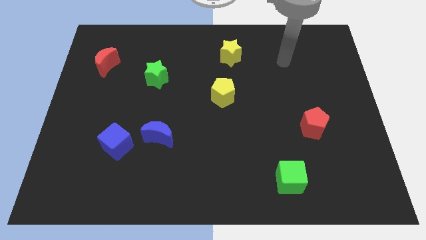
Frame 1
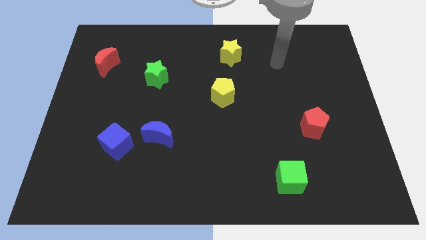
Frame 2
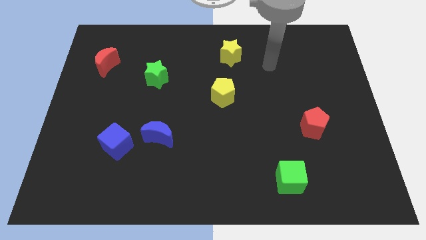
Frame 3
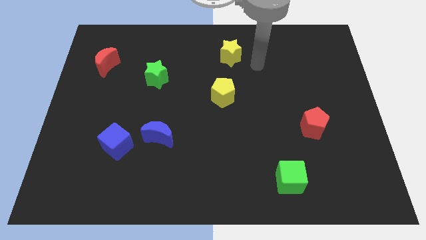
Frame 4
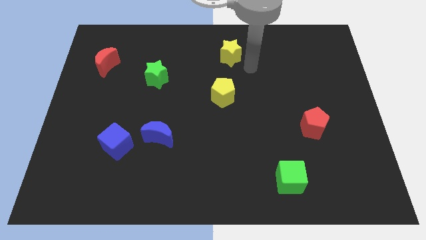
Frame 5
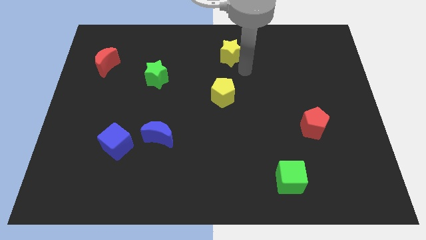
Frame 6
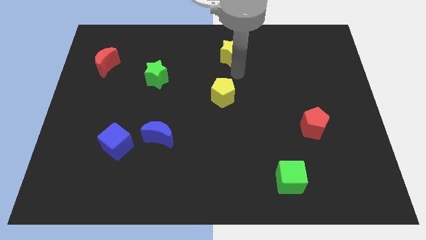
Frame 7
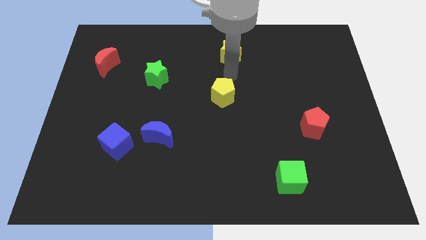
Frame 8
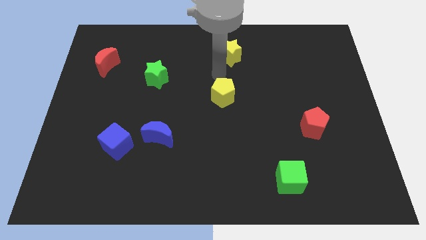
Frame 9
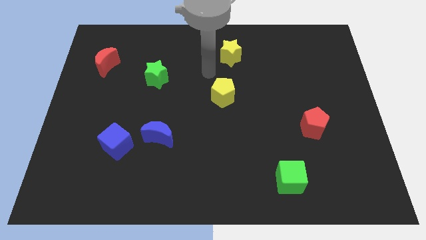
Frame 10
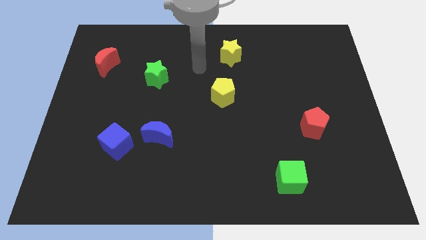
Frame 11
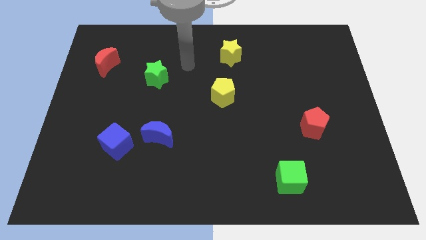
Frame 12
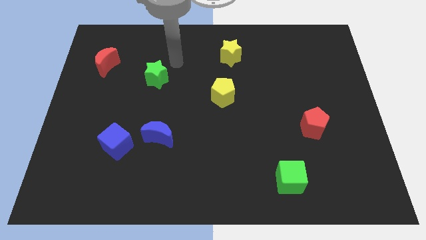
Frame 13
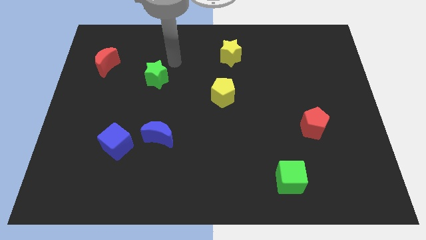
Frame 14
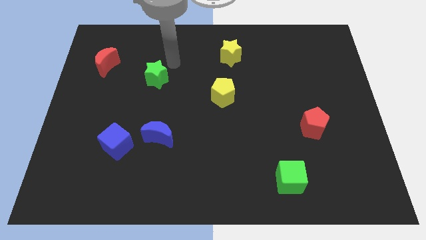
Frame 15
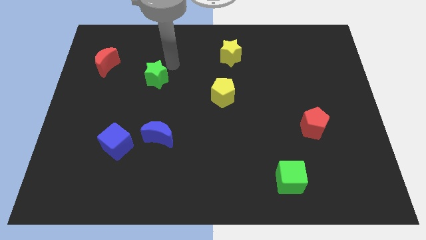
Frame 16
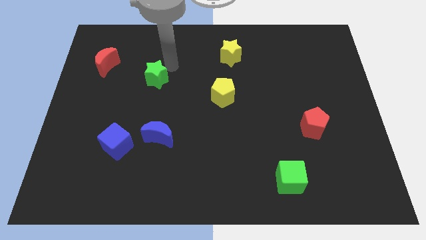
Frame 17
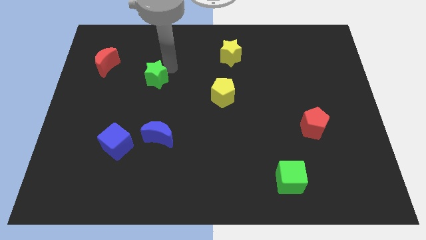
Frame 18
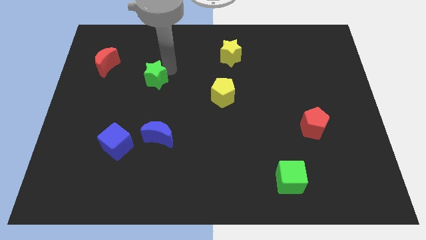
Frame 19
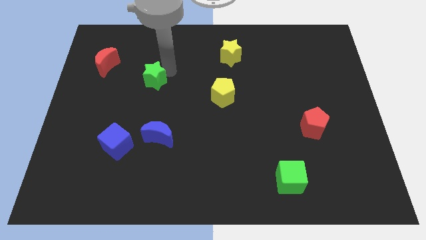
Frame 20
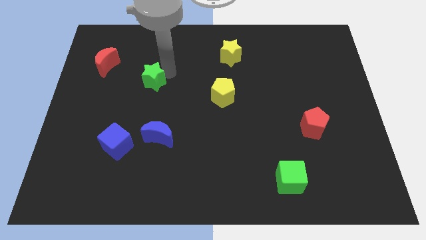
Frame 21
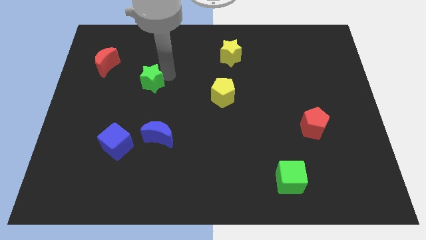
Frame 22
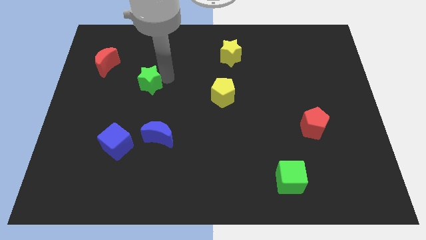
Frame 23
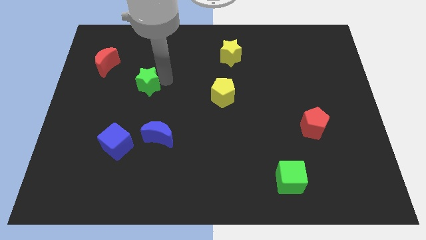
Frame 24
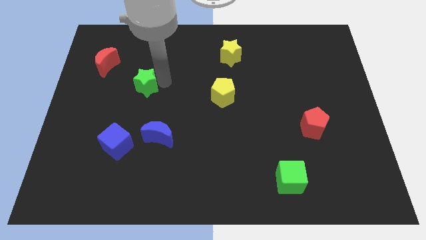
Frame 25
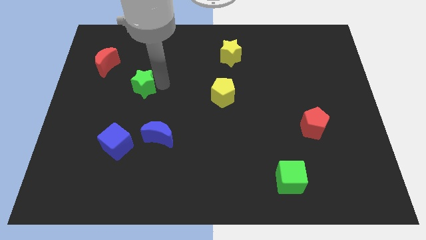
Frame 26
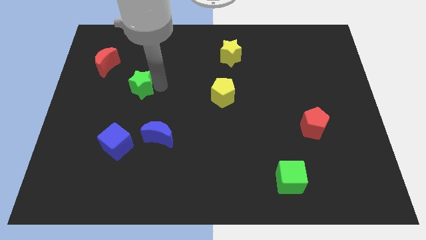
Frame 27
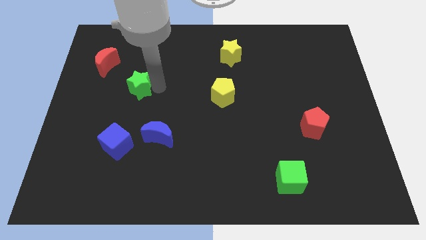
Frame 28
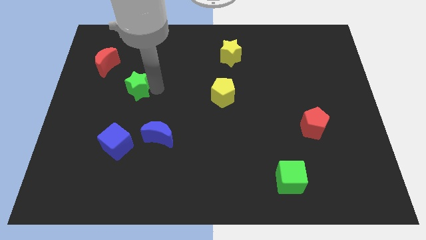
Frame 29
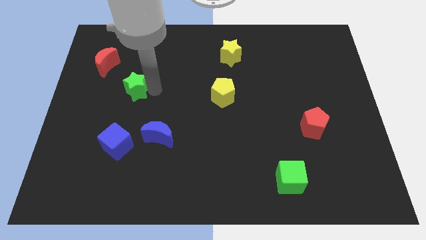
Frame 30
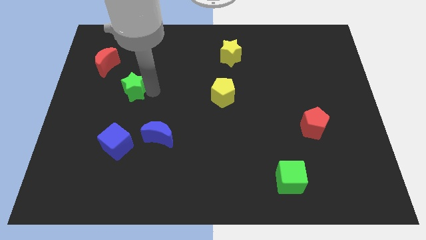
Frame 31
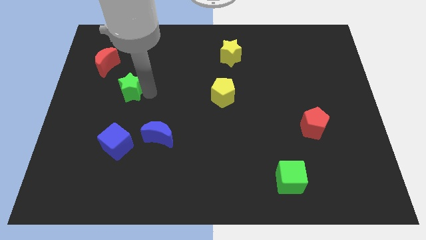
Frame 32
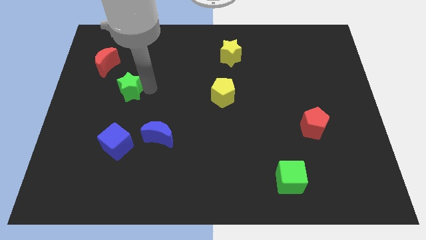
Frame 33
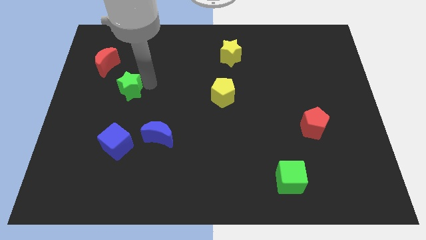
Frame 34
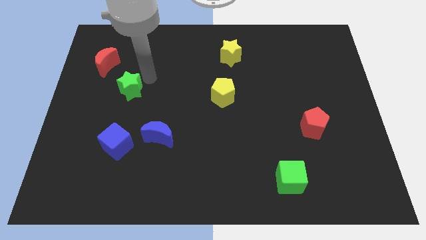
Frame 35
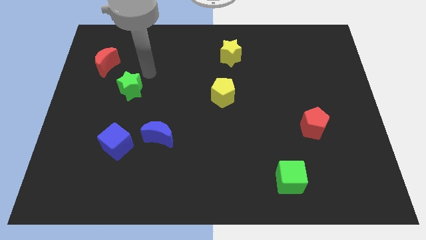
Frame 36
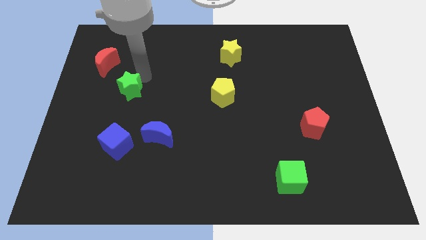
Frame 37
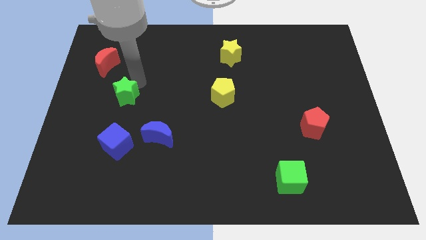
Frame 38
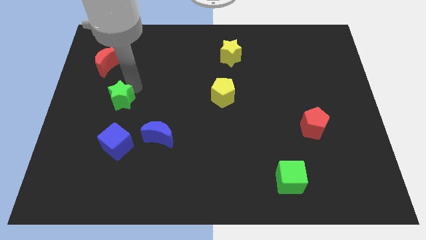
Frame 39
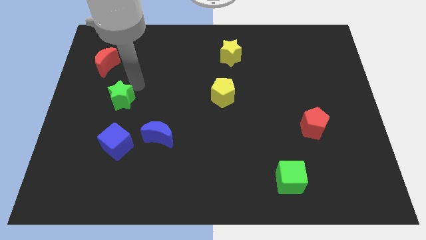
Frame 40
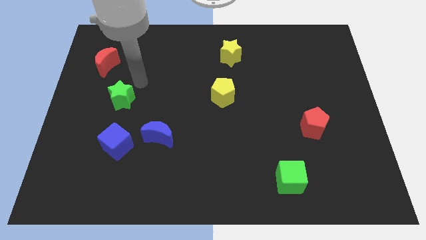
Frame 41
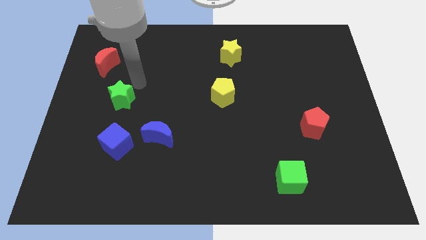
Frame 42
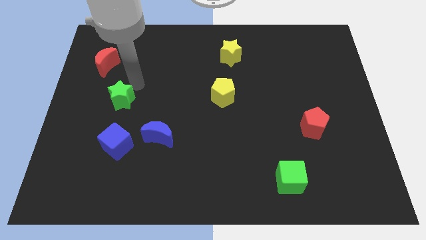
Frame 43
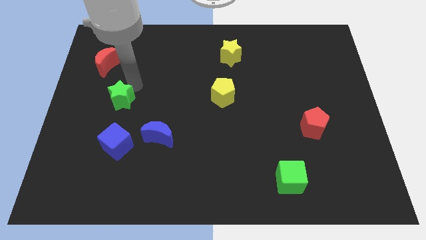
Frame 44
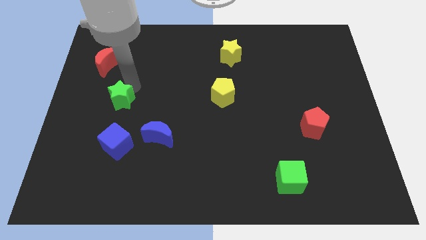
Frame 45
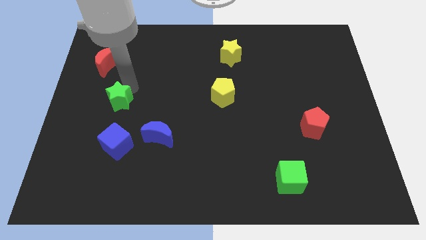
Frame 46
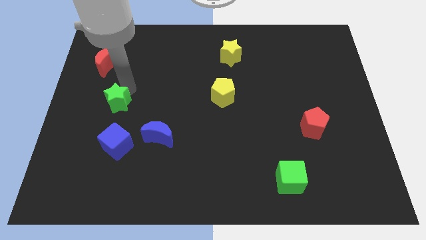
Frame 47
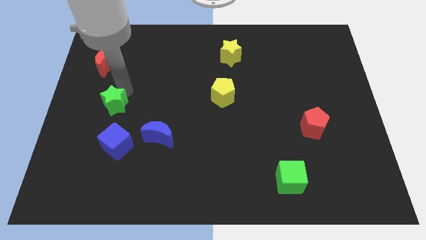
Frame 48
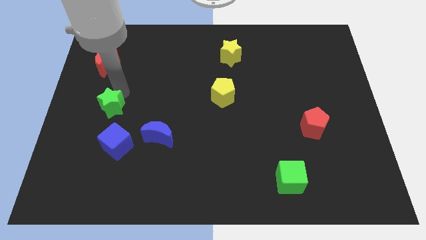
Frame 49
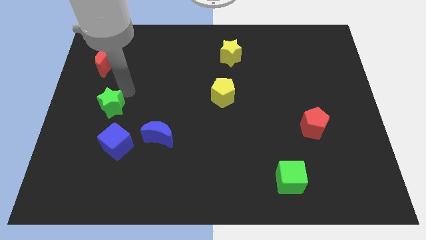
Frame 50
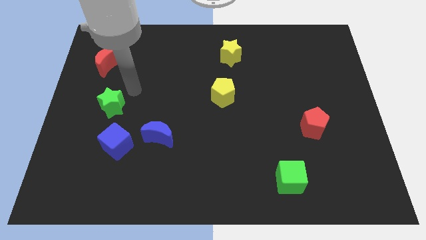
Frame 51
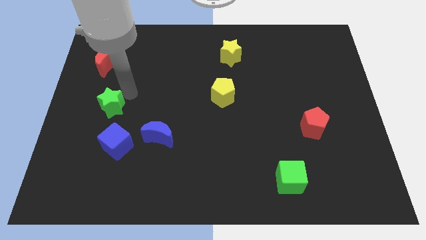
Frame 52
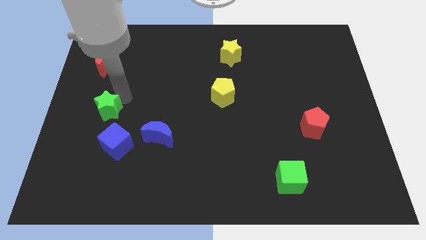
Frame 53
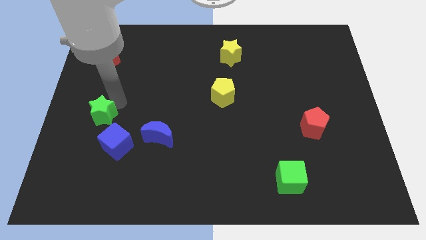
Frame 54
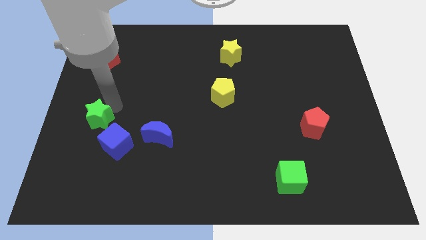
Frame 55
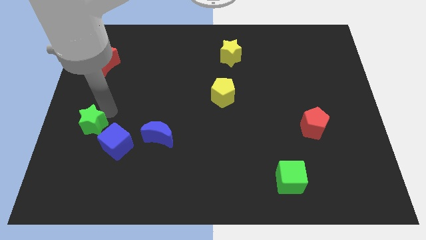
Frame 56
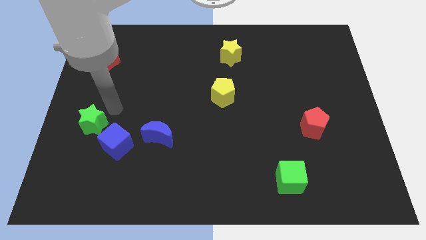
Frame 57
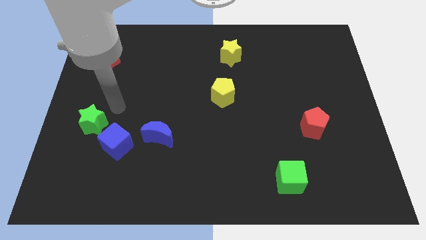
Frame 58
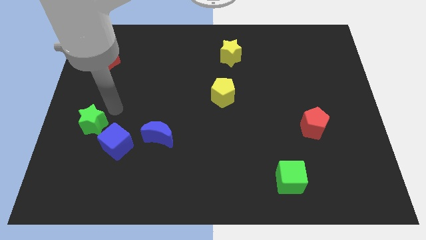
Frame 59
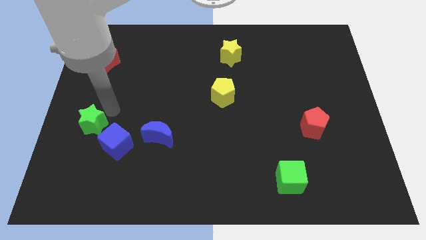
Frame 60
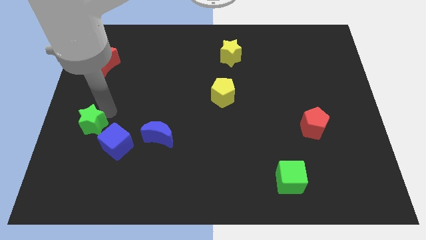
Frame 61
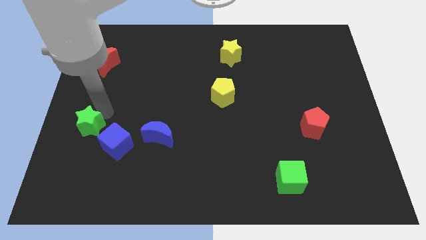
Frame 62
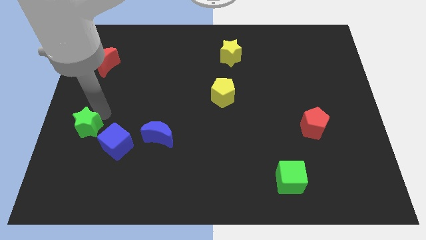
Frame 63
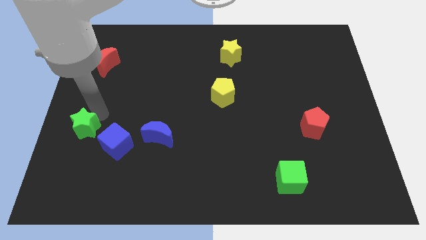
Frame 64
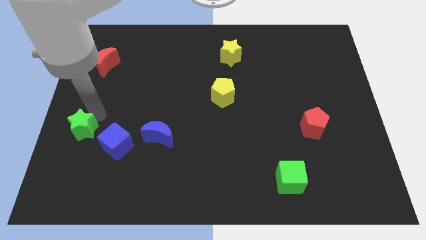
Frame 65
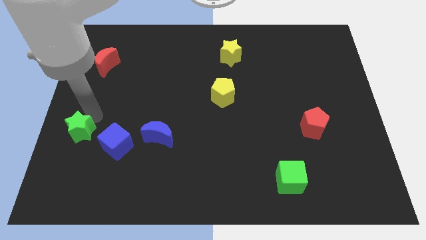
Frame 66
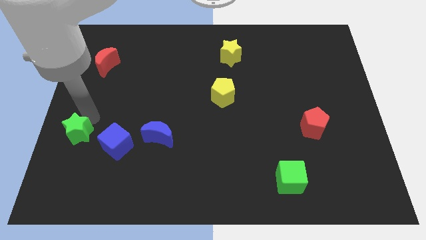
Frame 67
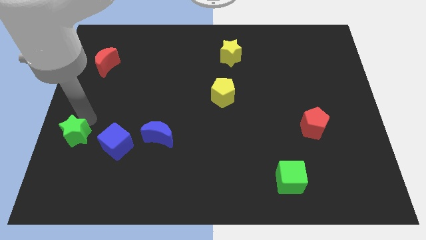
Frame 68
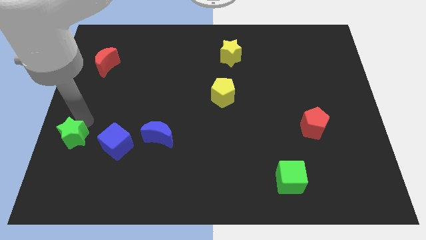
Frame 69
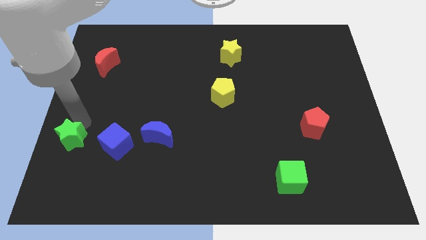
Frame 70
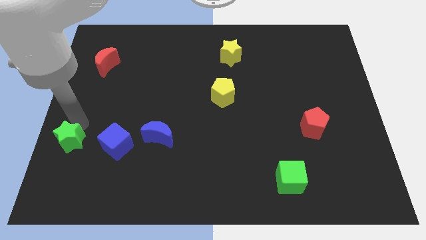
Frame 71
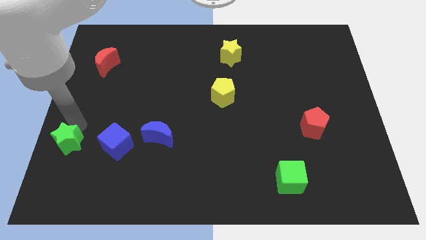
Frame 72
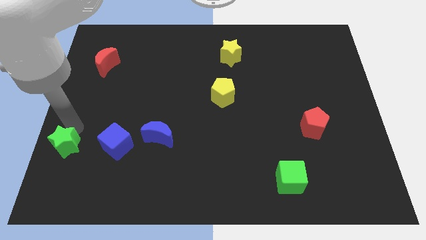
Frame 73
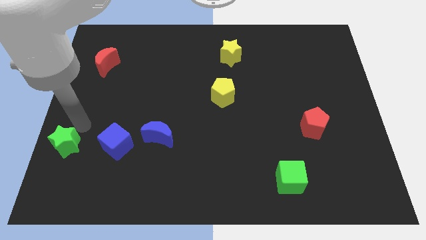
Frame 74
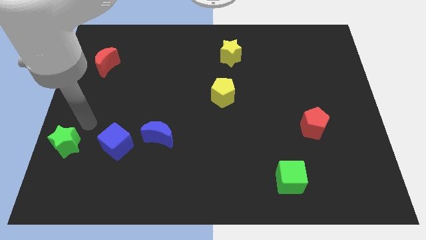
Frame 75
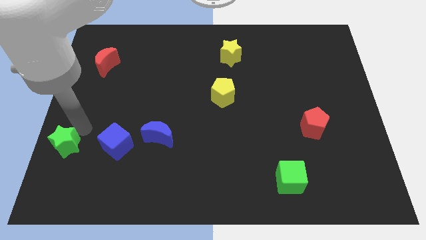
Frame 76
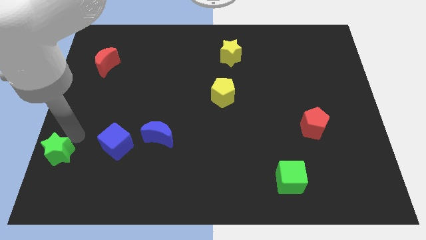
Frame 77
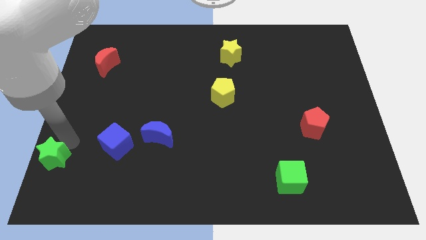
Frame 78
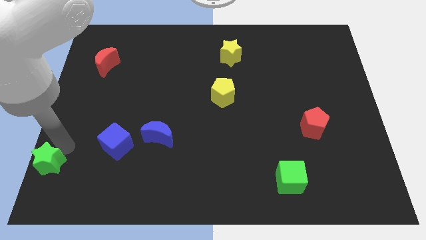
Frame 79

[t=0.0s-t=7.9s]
push the green star to the bottom left corner
